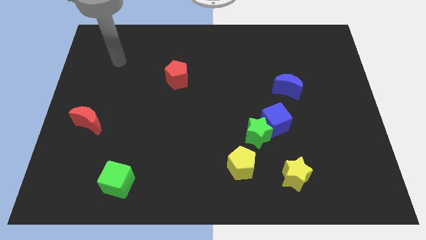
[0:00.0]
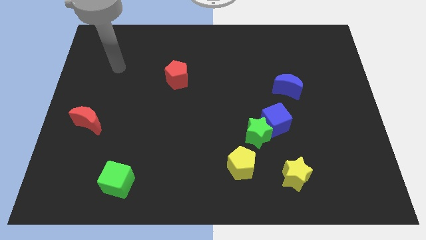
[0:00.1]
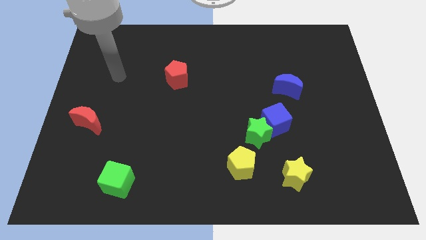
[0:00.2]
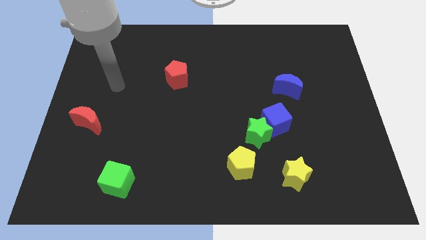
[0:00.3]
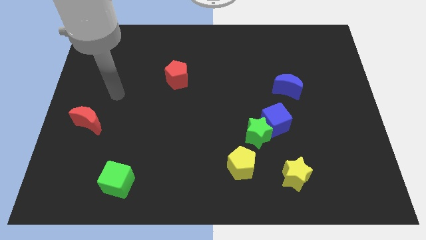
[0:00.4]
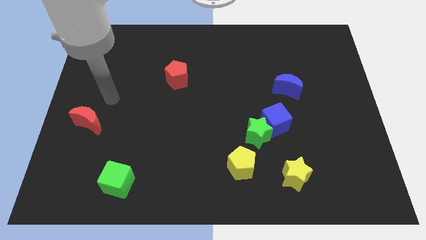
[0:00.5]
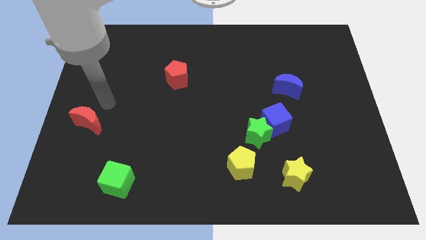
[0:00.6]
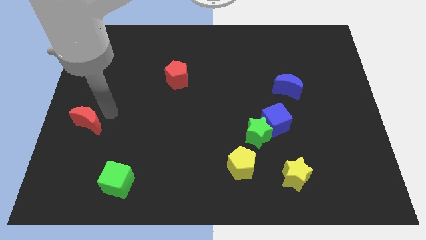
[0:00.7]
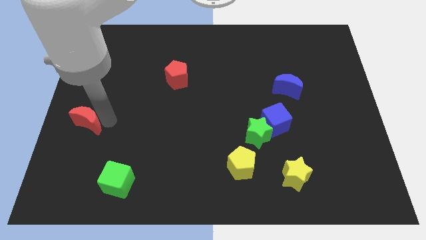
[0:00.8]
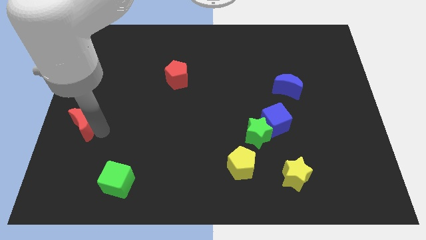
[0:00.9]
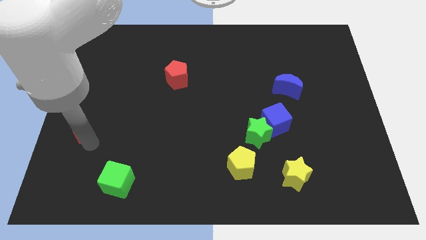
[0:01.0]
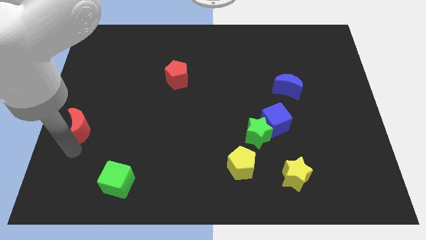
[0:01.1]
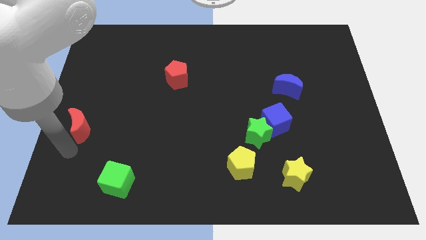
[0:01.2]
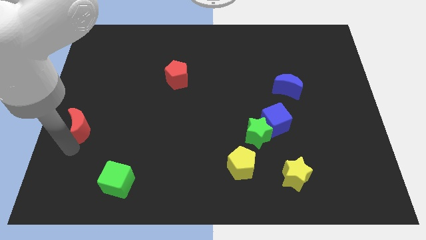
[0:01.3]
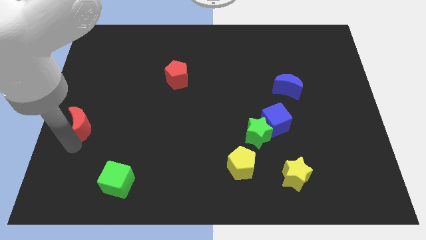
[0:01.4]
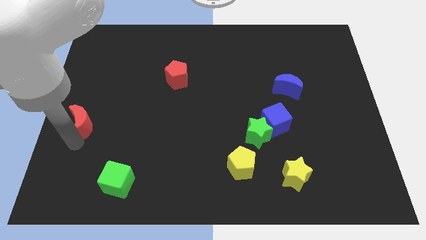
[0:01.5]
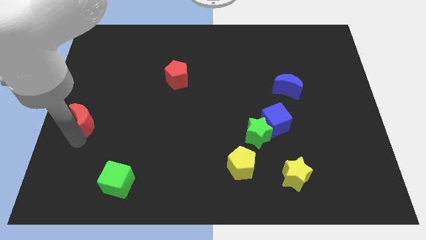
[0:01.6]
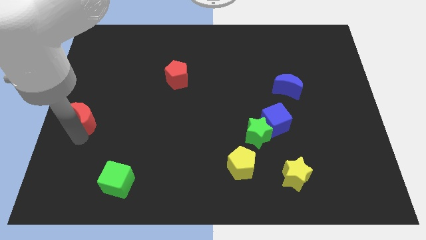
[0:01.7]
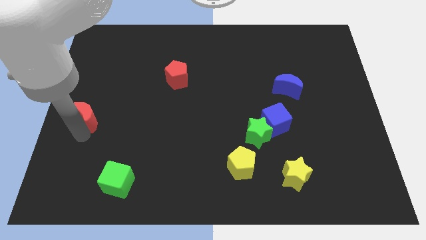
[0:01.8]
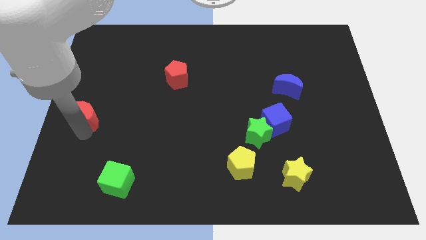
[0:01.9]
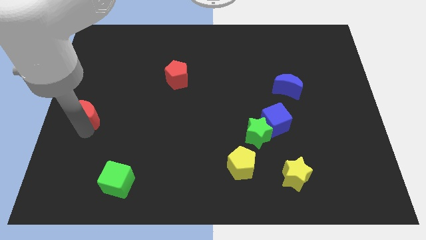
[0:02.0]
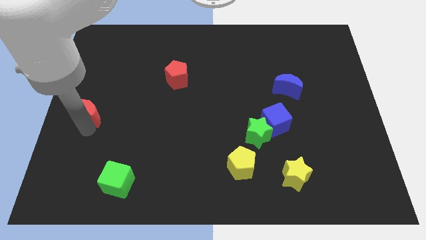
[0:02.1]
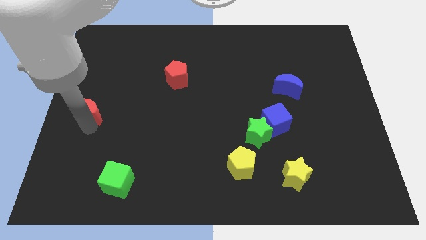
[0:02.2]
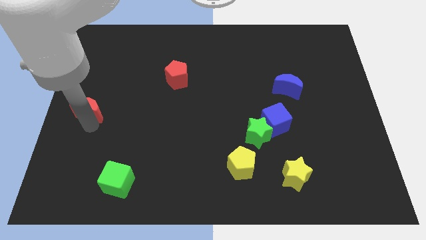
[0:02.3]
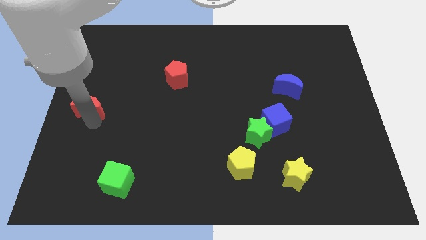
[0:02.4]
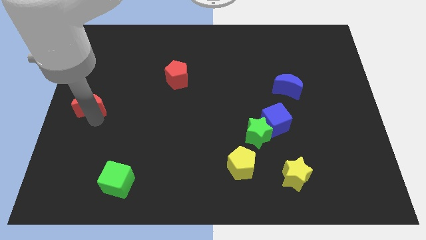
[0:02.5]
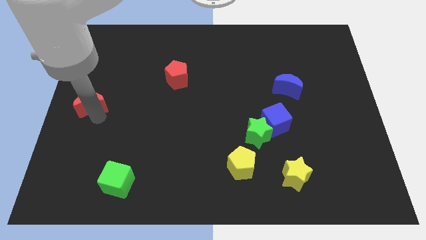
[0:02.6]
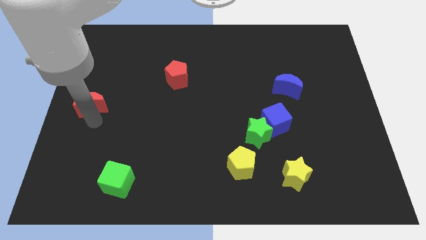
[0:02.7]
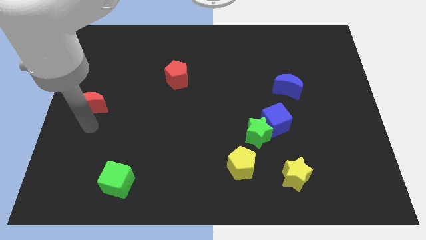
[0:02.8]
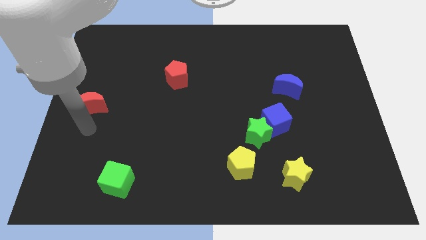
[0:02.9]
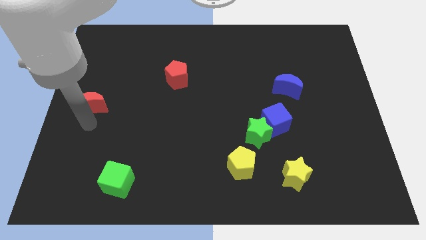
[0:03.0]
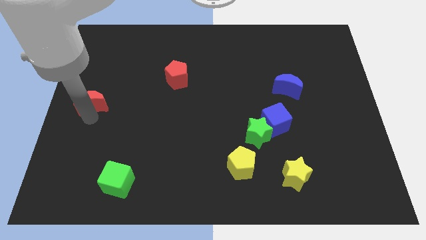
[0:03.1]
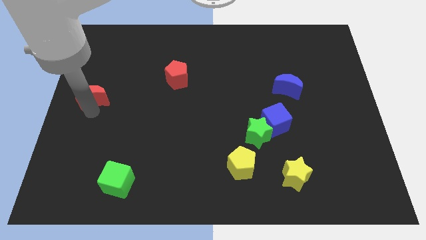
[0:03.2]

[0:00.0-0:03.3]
slide the red moon up slightly

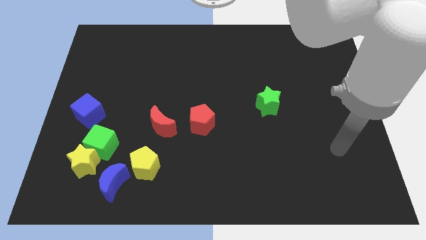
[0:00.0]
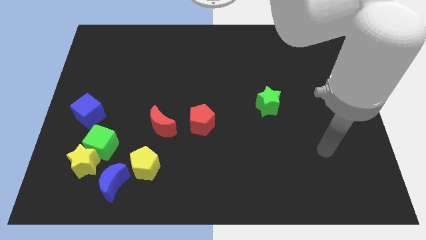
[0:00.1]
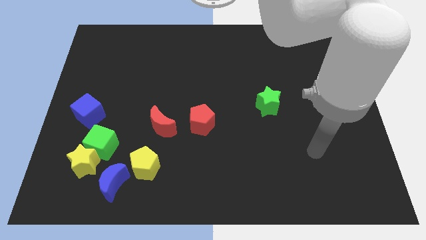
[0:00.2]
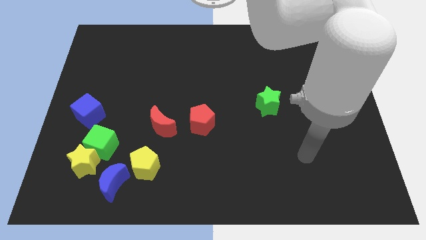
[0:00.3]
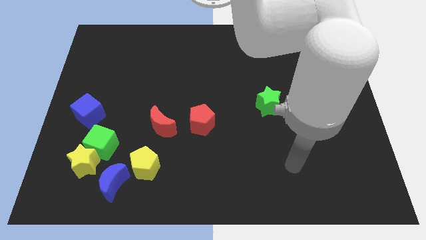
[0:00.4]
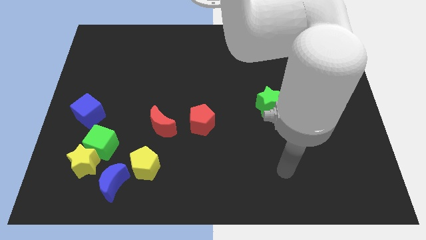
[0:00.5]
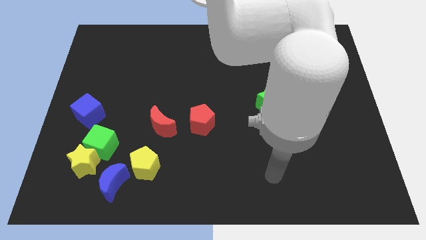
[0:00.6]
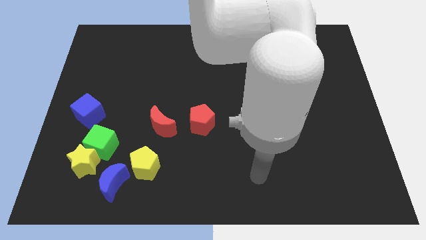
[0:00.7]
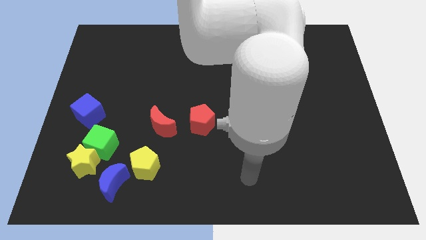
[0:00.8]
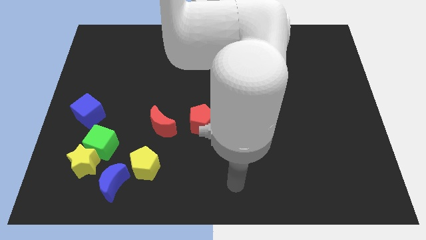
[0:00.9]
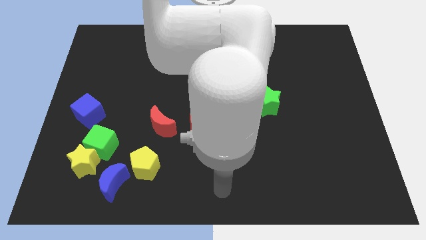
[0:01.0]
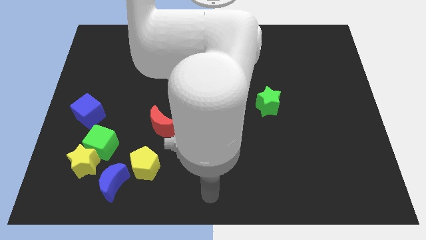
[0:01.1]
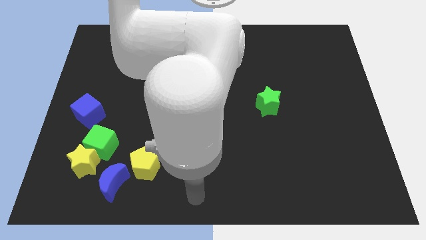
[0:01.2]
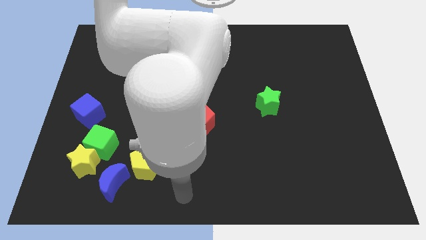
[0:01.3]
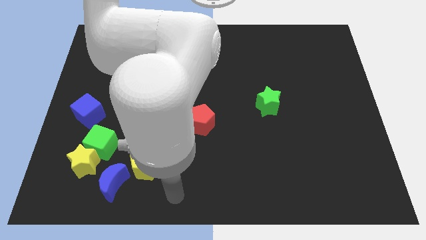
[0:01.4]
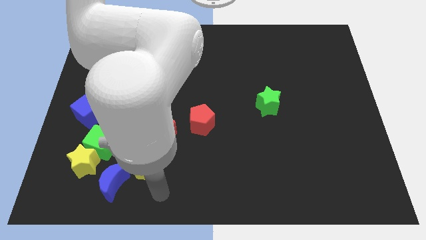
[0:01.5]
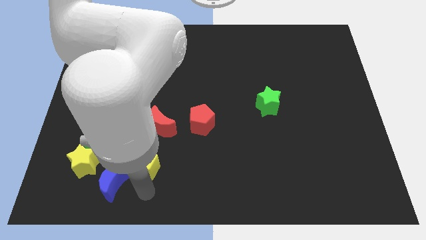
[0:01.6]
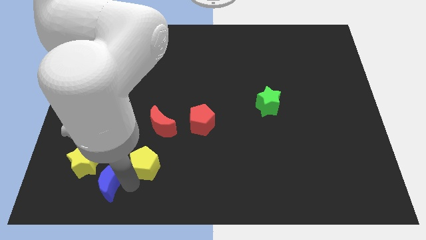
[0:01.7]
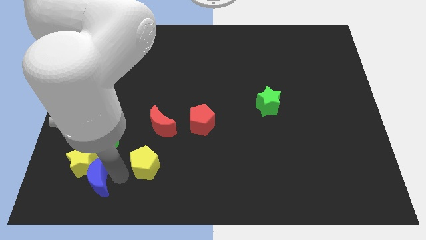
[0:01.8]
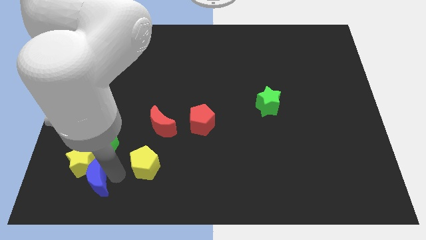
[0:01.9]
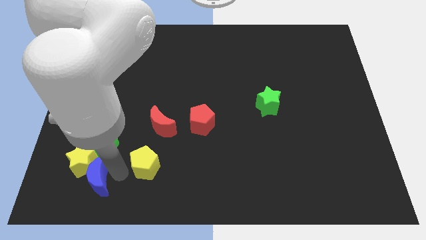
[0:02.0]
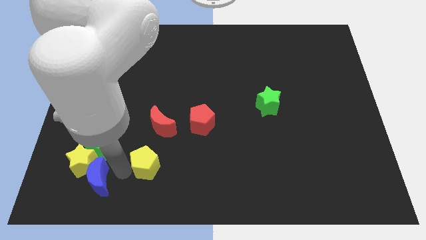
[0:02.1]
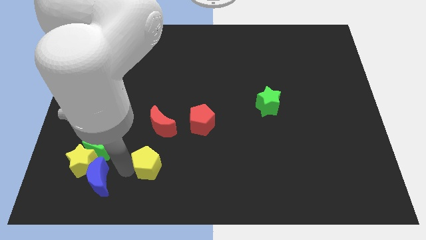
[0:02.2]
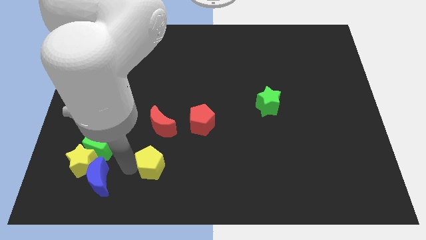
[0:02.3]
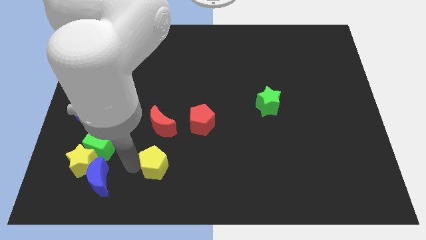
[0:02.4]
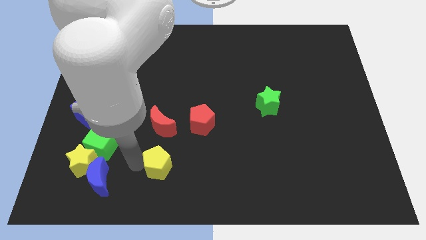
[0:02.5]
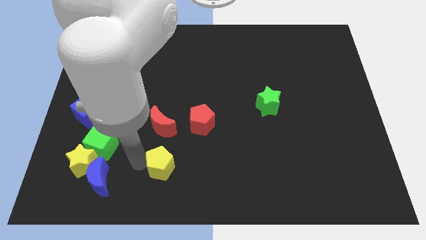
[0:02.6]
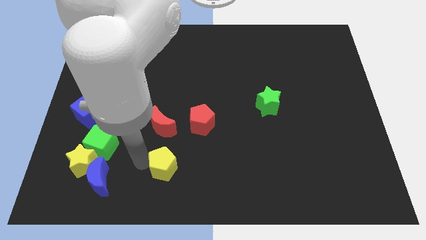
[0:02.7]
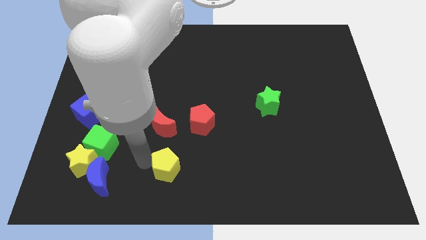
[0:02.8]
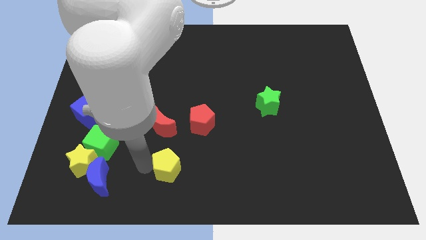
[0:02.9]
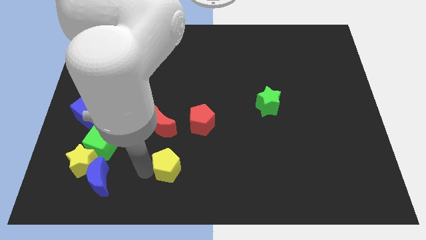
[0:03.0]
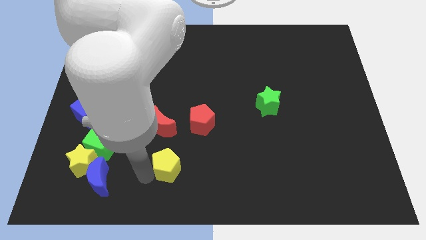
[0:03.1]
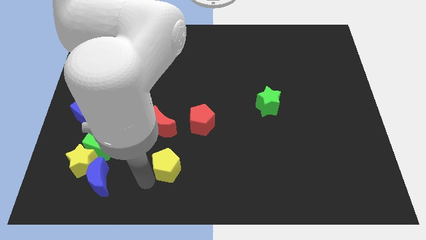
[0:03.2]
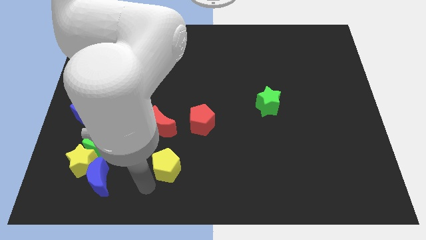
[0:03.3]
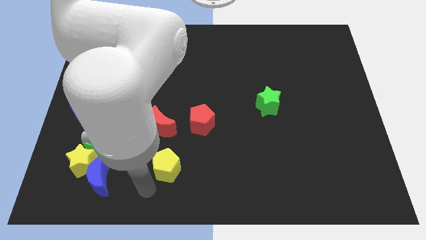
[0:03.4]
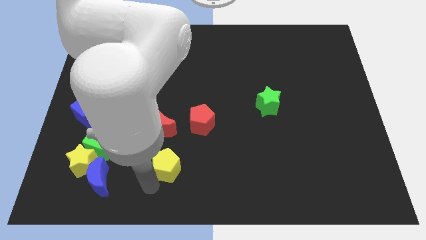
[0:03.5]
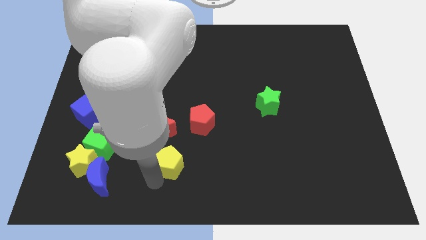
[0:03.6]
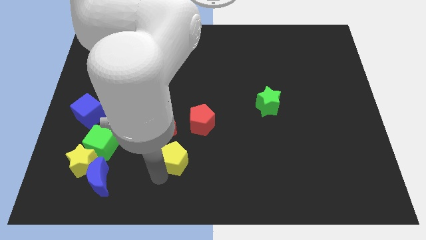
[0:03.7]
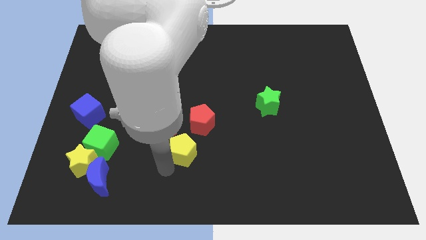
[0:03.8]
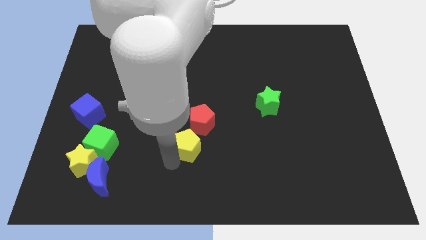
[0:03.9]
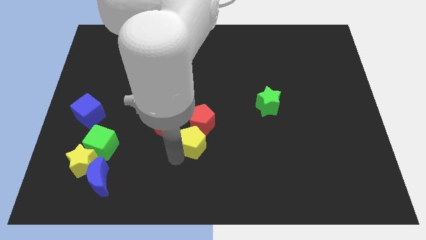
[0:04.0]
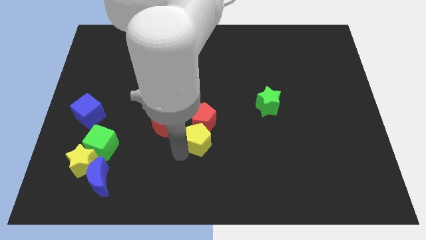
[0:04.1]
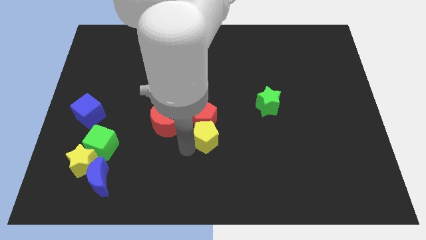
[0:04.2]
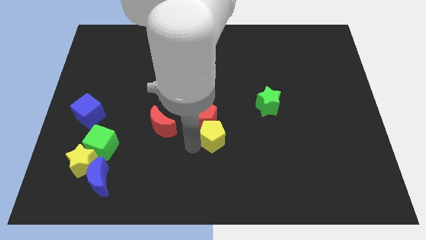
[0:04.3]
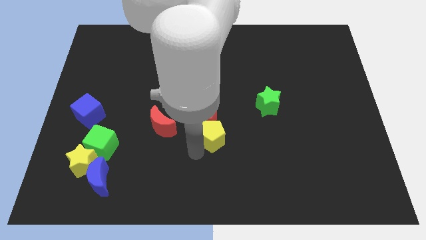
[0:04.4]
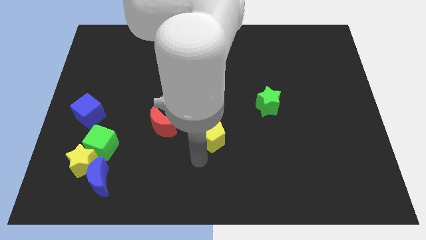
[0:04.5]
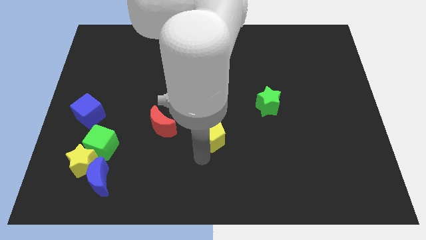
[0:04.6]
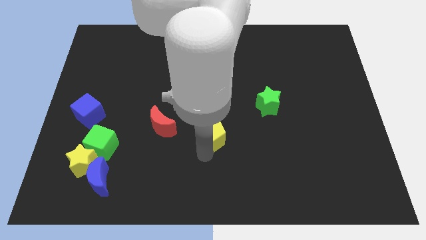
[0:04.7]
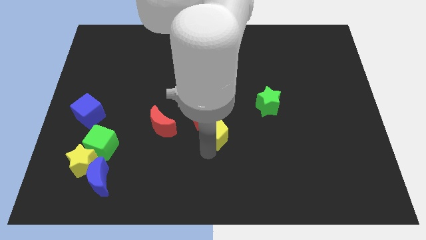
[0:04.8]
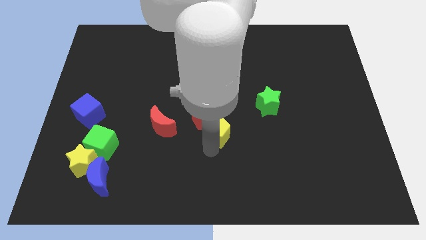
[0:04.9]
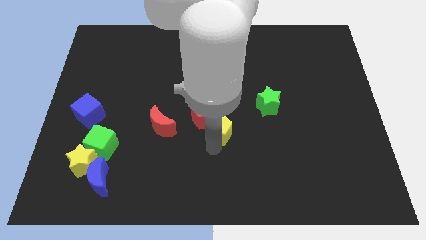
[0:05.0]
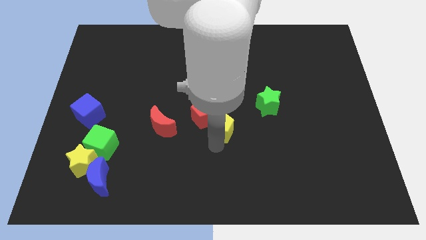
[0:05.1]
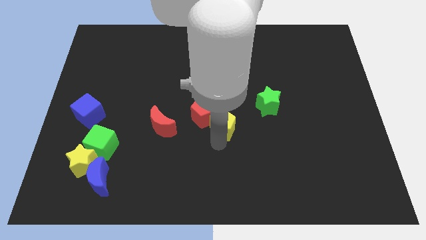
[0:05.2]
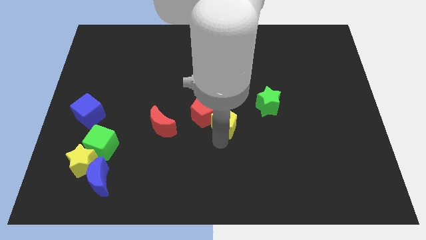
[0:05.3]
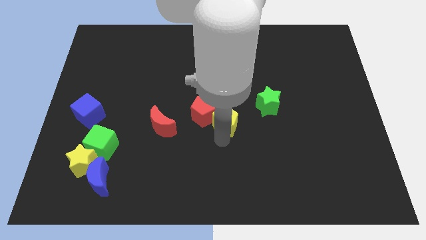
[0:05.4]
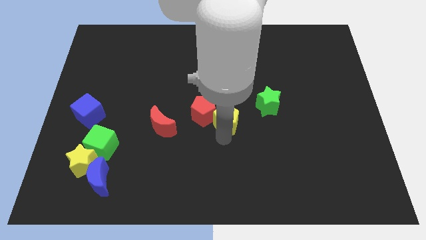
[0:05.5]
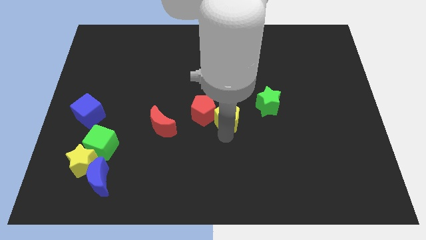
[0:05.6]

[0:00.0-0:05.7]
push the yellow pentagon diagonally up and to the right
